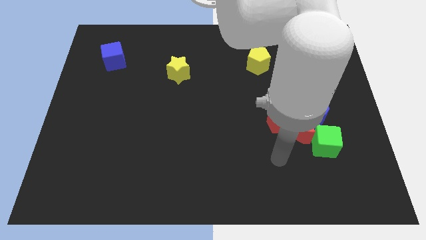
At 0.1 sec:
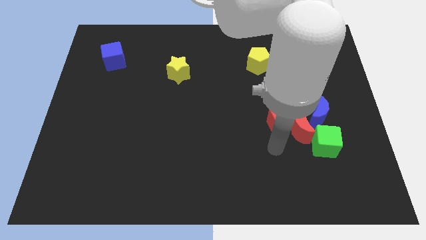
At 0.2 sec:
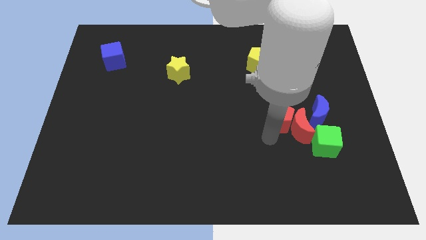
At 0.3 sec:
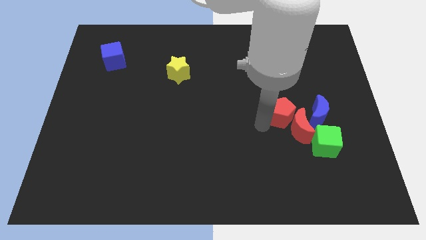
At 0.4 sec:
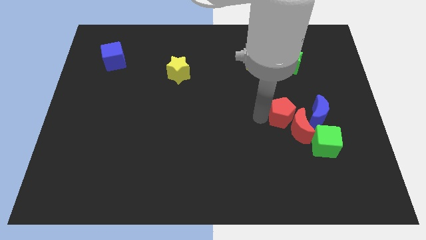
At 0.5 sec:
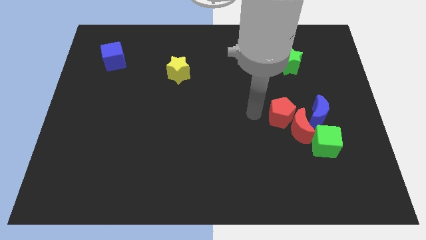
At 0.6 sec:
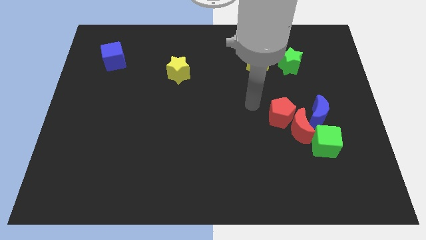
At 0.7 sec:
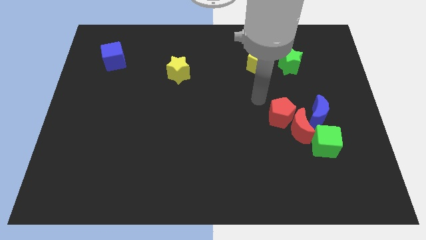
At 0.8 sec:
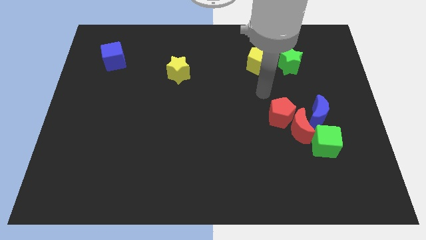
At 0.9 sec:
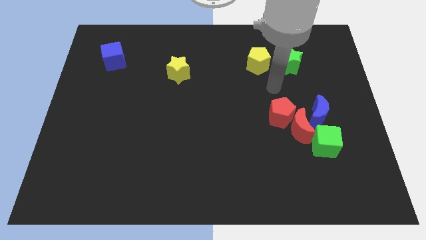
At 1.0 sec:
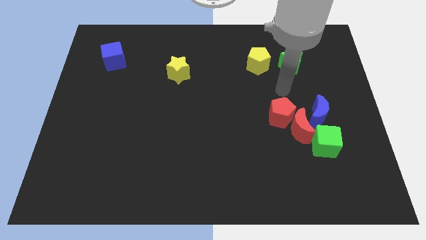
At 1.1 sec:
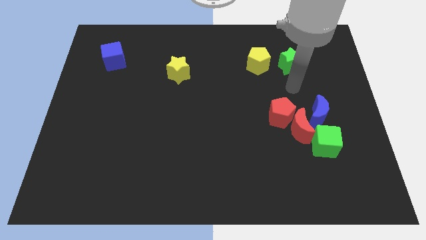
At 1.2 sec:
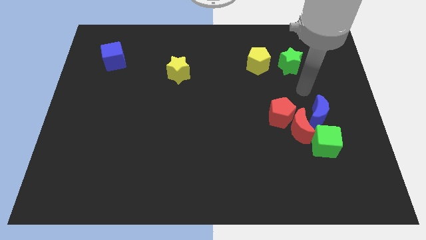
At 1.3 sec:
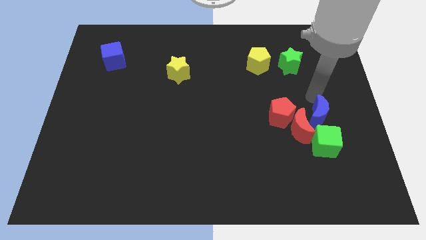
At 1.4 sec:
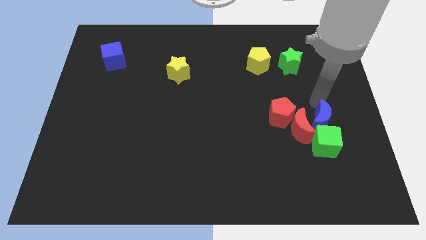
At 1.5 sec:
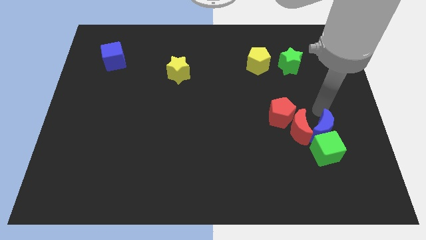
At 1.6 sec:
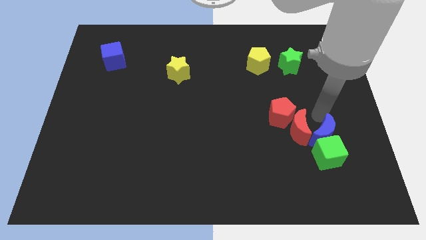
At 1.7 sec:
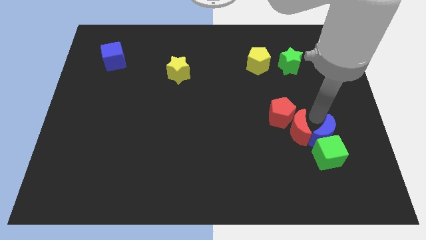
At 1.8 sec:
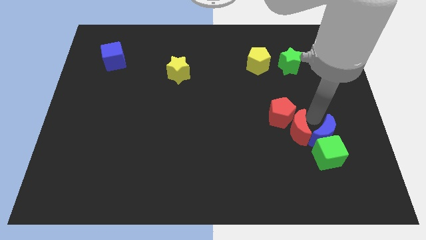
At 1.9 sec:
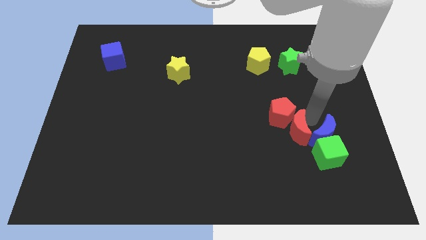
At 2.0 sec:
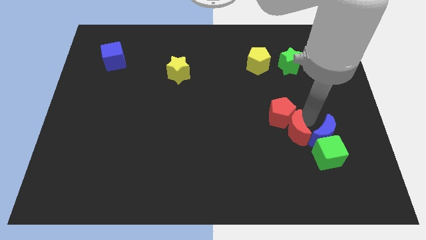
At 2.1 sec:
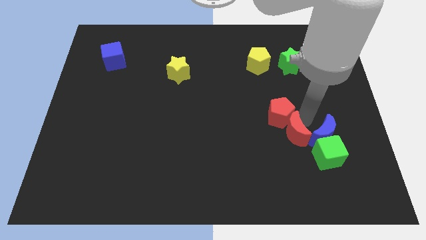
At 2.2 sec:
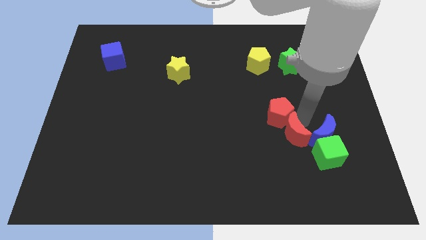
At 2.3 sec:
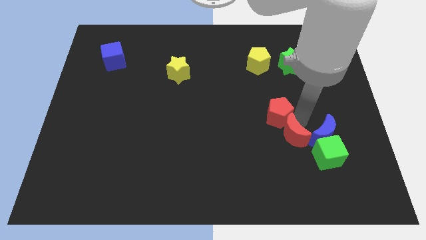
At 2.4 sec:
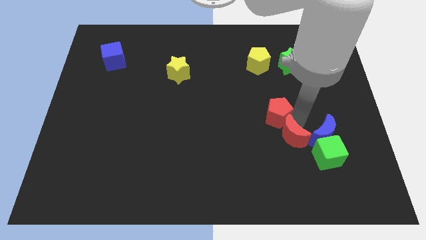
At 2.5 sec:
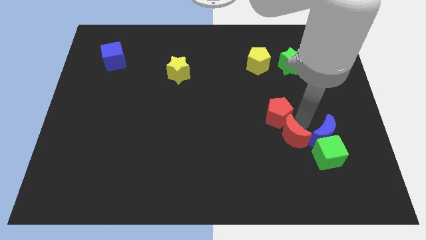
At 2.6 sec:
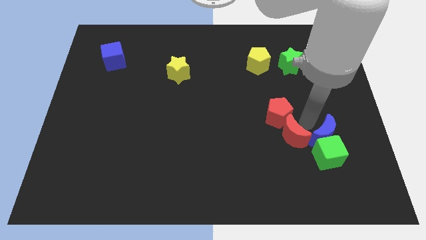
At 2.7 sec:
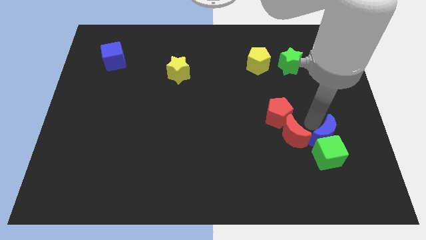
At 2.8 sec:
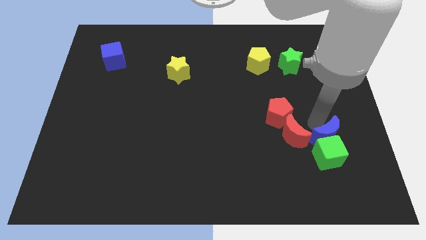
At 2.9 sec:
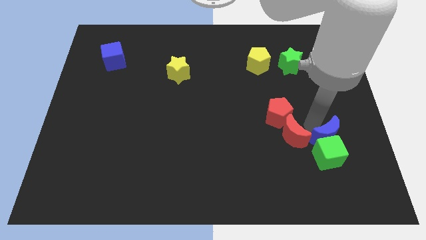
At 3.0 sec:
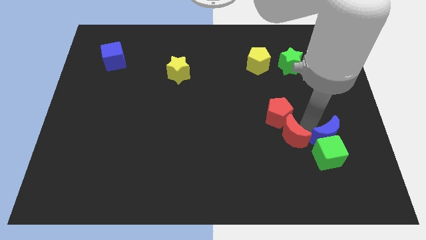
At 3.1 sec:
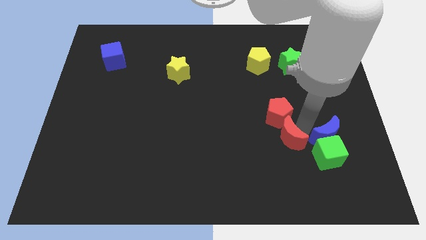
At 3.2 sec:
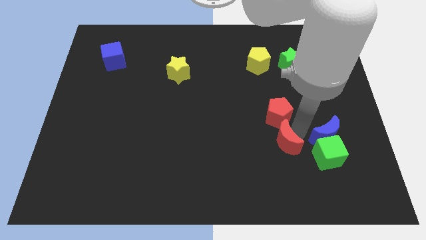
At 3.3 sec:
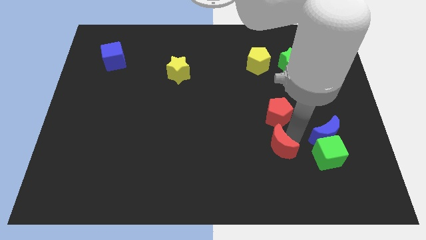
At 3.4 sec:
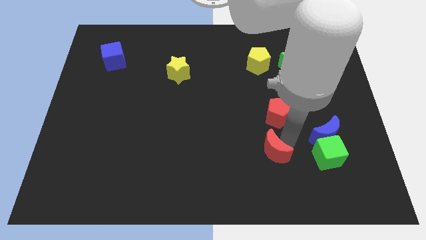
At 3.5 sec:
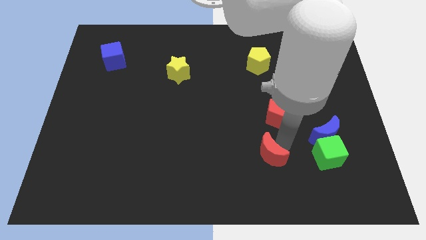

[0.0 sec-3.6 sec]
move the red moon away from the red pentagon, blue moon, and green cube

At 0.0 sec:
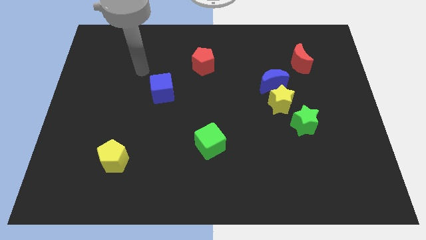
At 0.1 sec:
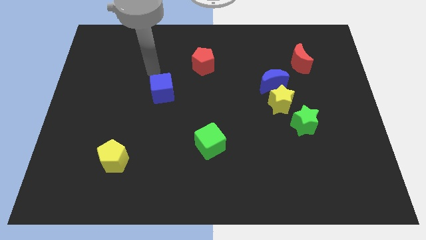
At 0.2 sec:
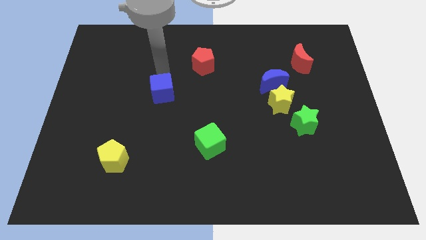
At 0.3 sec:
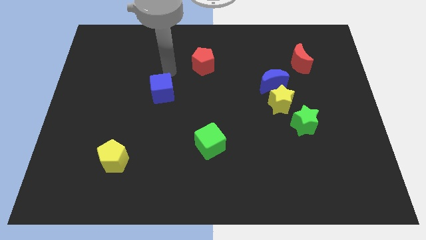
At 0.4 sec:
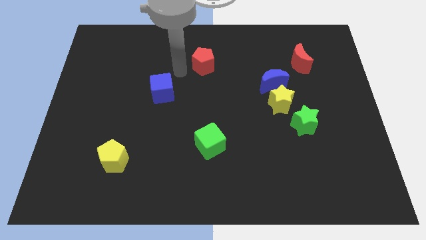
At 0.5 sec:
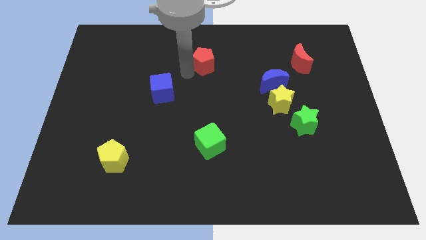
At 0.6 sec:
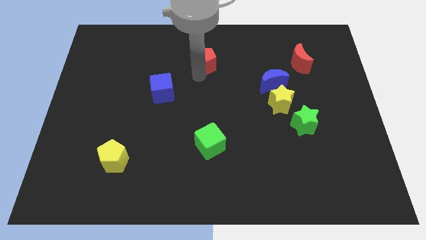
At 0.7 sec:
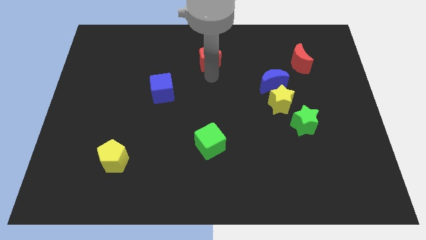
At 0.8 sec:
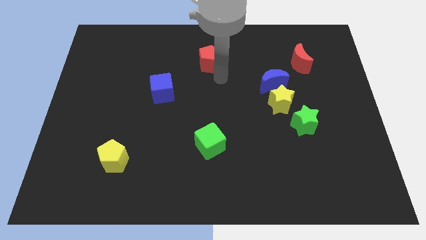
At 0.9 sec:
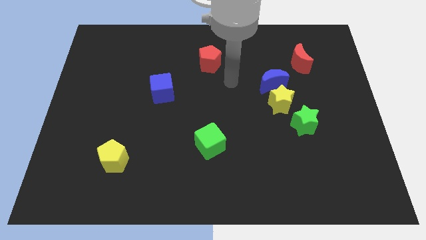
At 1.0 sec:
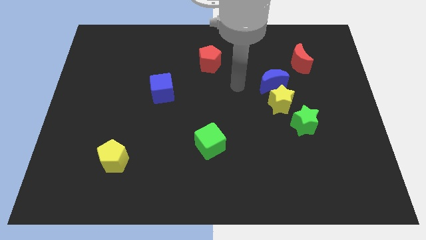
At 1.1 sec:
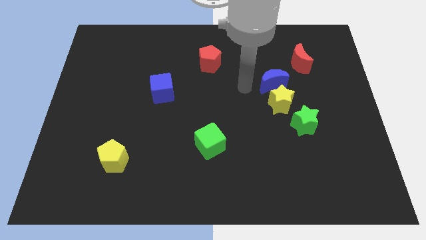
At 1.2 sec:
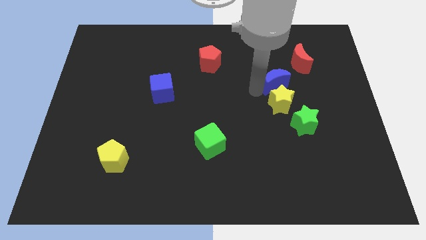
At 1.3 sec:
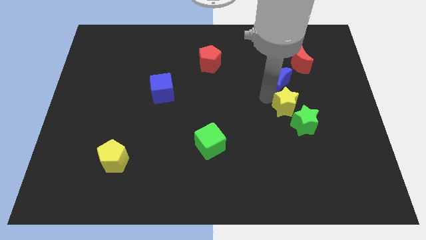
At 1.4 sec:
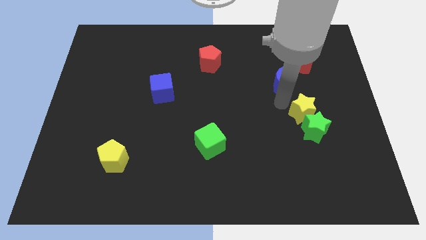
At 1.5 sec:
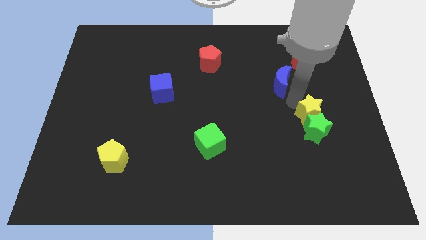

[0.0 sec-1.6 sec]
pull the blue moon apart from the yellow star

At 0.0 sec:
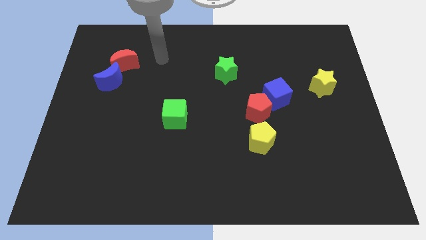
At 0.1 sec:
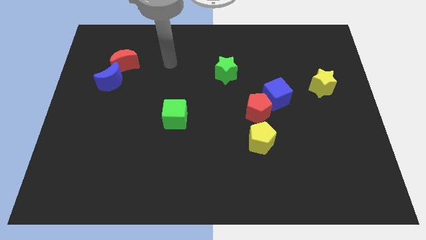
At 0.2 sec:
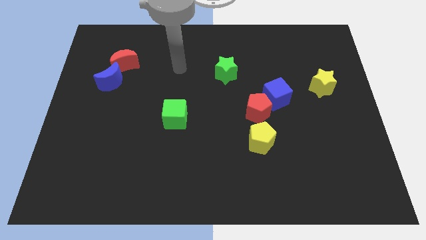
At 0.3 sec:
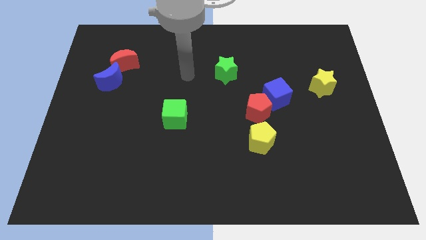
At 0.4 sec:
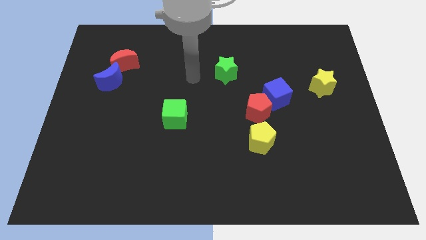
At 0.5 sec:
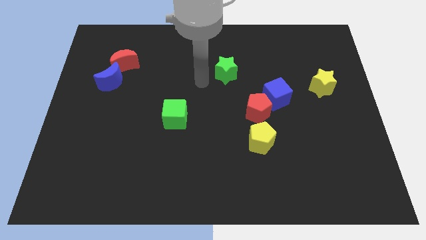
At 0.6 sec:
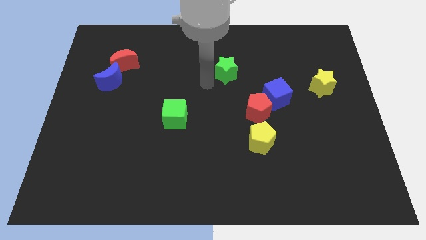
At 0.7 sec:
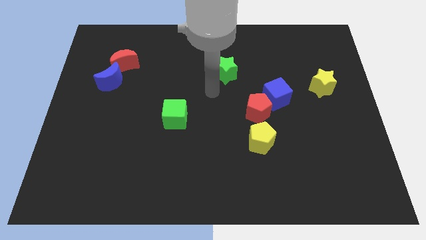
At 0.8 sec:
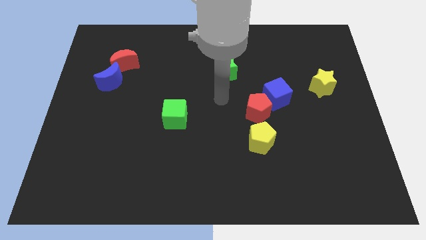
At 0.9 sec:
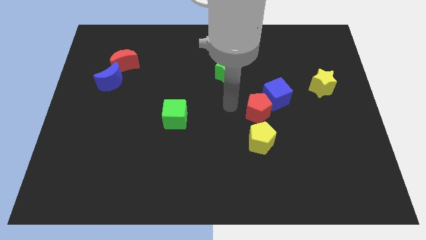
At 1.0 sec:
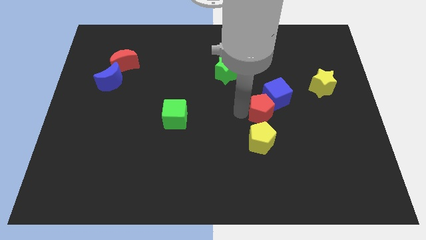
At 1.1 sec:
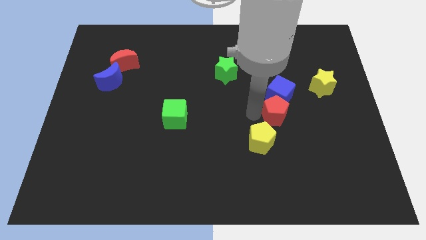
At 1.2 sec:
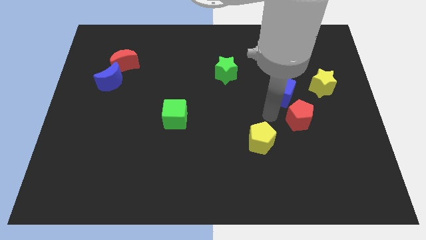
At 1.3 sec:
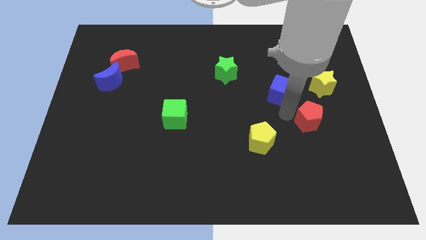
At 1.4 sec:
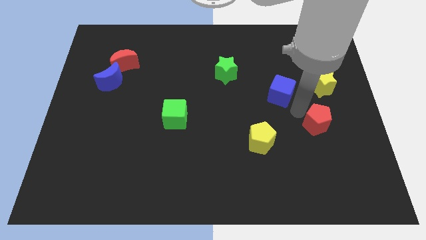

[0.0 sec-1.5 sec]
separate the blue cube from the red pentagon

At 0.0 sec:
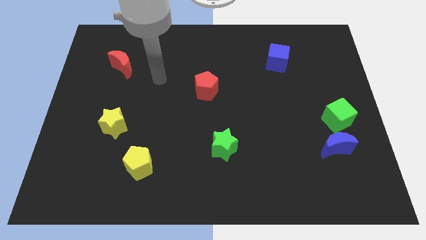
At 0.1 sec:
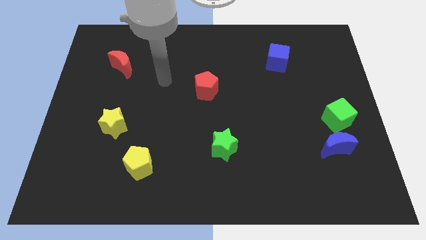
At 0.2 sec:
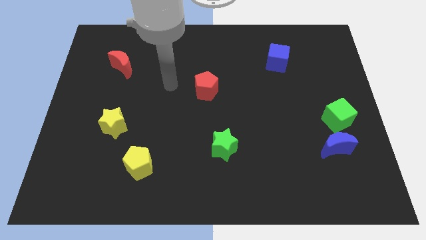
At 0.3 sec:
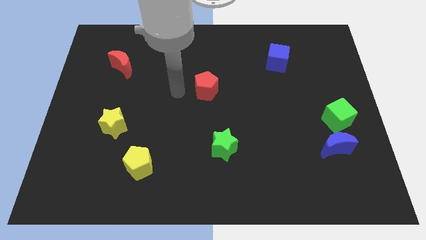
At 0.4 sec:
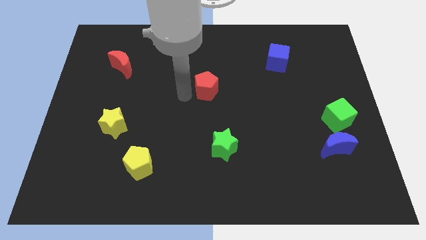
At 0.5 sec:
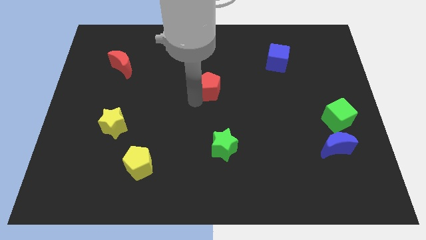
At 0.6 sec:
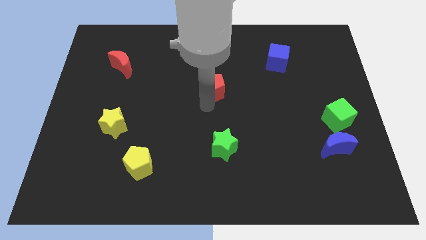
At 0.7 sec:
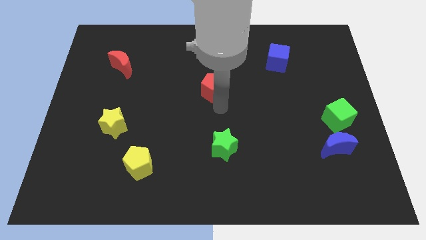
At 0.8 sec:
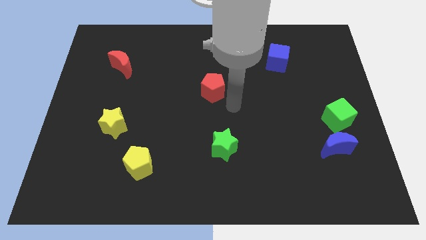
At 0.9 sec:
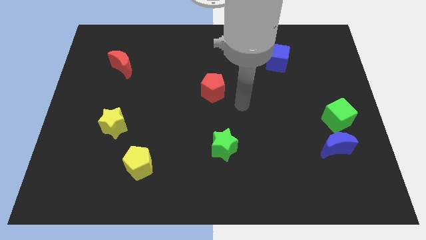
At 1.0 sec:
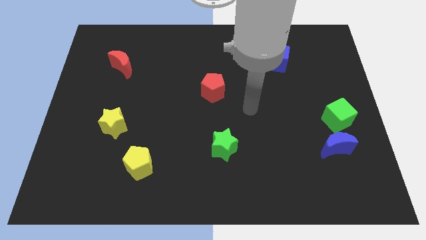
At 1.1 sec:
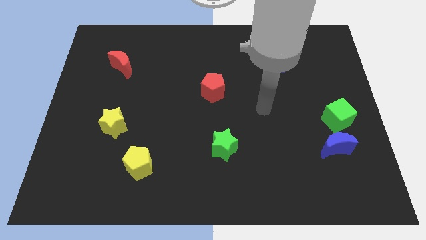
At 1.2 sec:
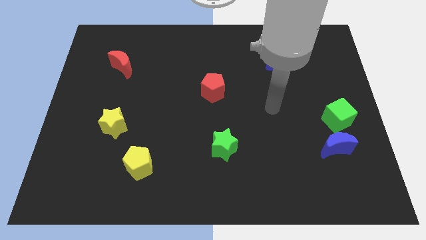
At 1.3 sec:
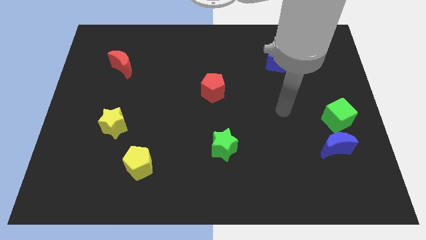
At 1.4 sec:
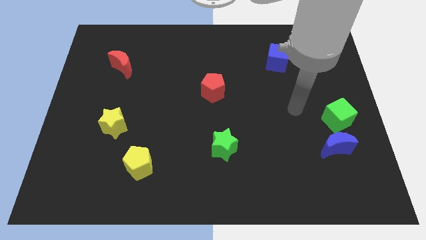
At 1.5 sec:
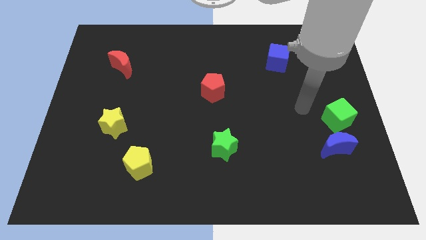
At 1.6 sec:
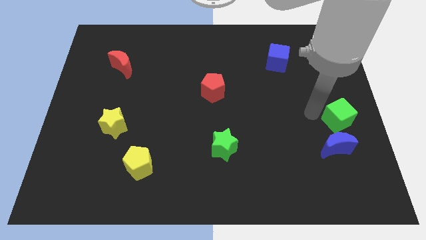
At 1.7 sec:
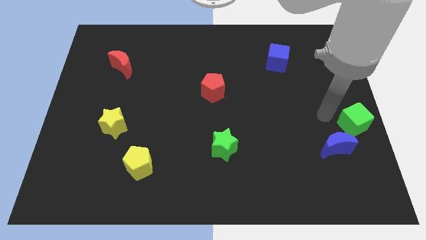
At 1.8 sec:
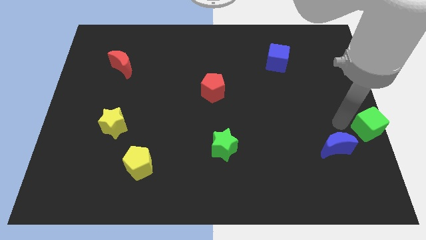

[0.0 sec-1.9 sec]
move the blue moon away from the green cube

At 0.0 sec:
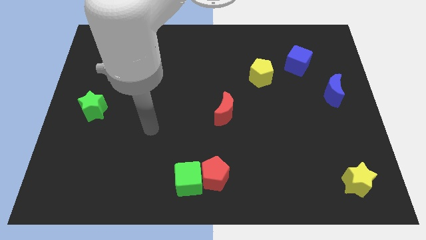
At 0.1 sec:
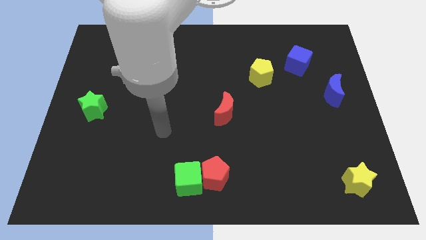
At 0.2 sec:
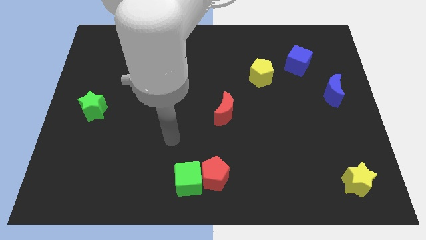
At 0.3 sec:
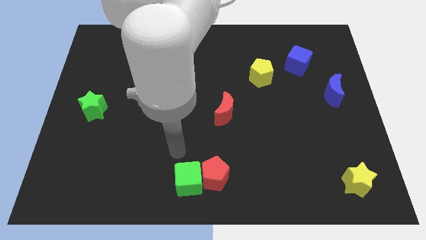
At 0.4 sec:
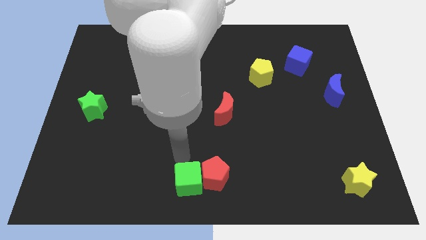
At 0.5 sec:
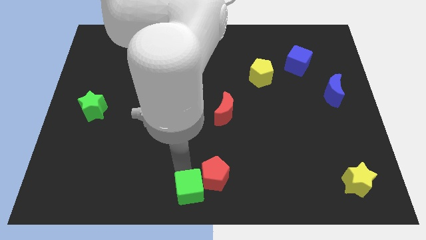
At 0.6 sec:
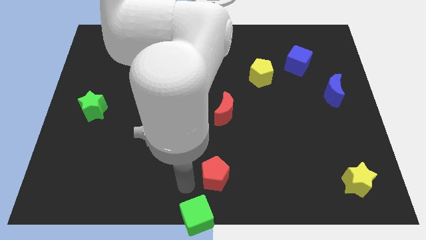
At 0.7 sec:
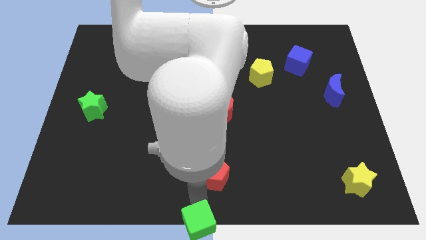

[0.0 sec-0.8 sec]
pull the red pentagon apart from the green cube
